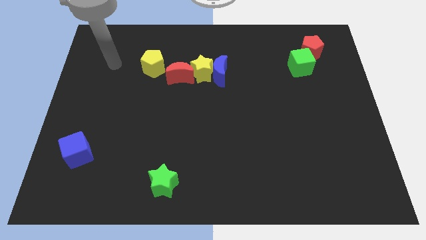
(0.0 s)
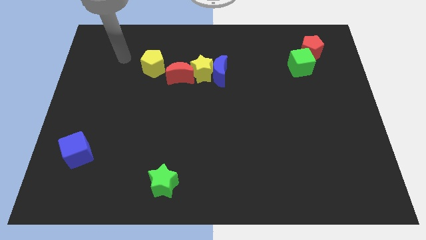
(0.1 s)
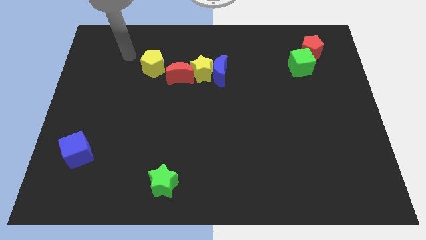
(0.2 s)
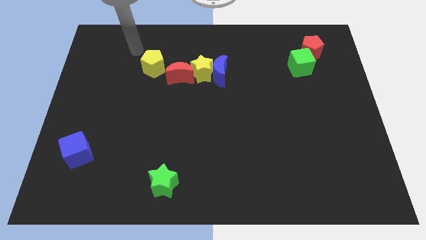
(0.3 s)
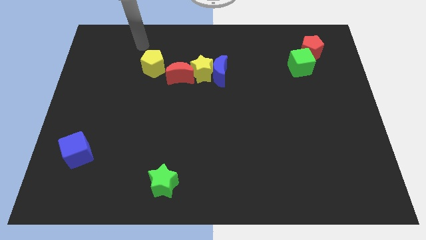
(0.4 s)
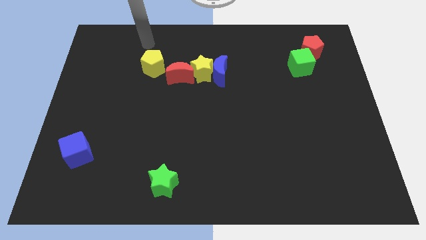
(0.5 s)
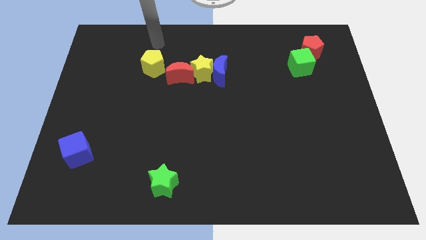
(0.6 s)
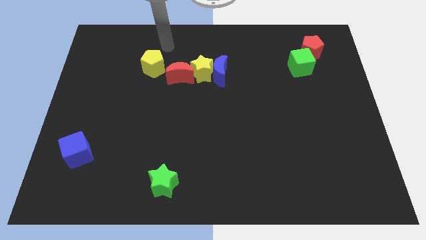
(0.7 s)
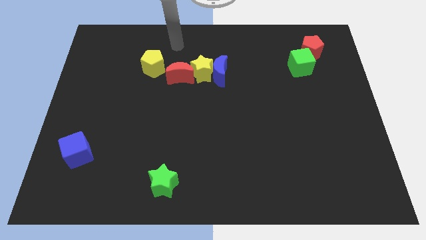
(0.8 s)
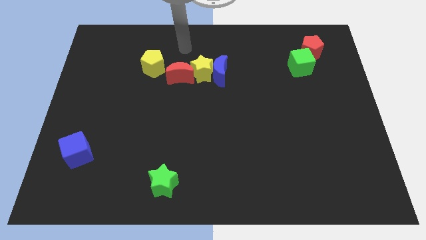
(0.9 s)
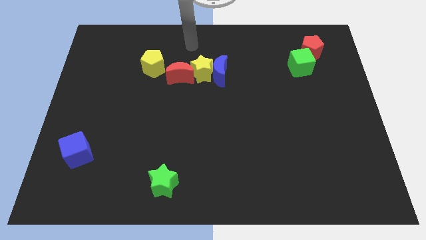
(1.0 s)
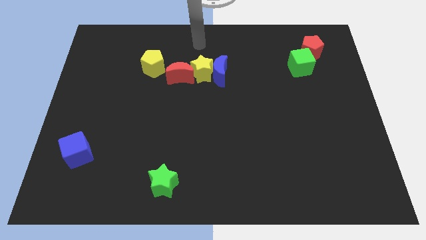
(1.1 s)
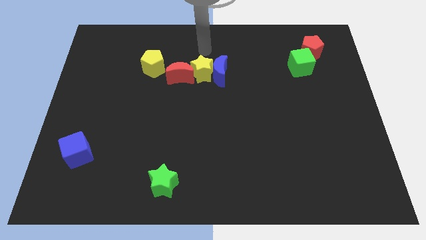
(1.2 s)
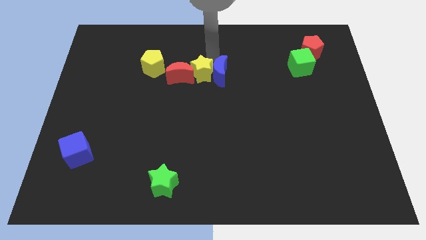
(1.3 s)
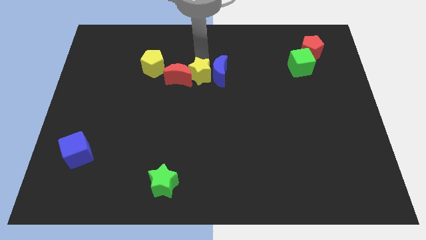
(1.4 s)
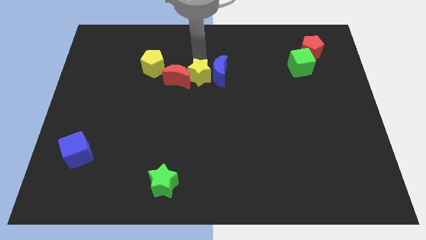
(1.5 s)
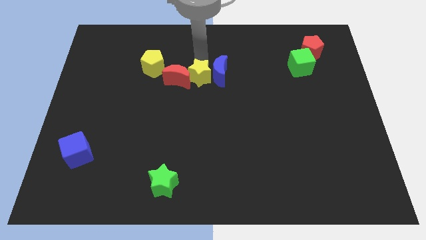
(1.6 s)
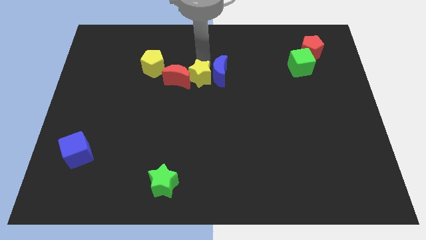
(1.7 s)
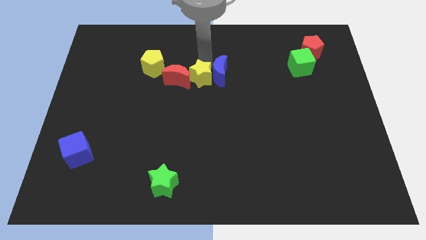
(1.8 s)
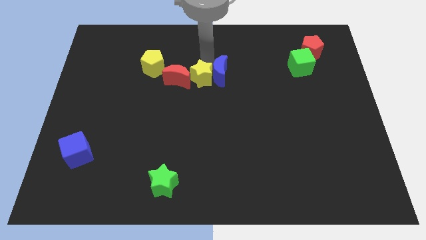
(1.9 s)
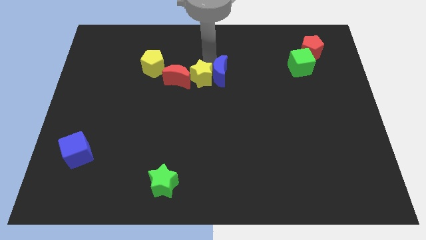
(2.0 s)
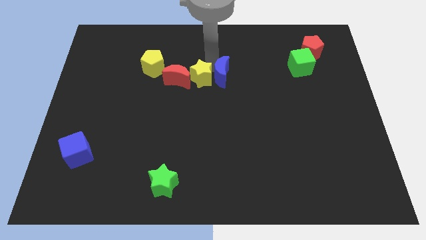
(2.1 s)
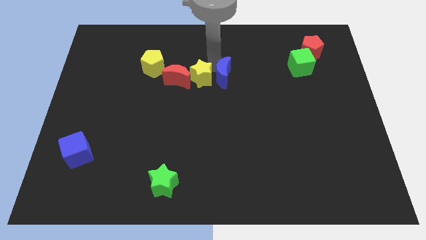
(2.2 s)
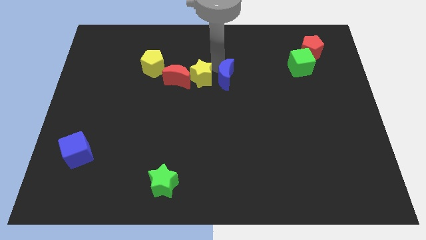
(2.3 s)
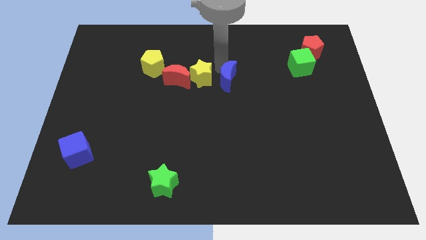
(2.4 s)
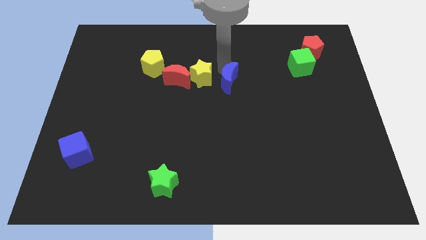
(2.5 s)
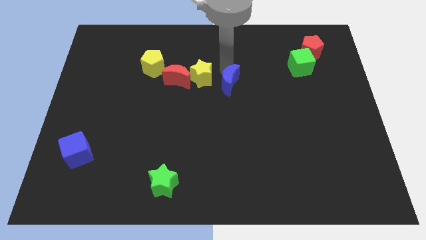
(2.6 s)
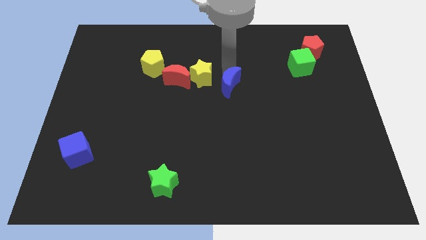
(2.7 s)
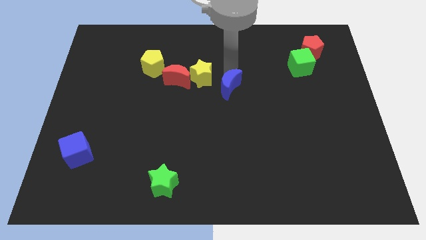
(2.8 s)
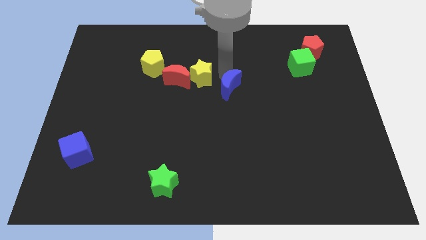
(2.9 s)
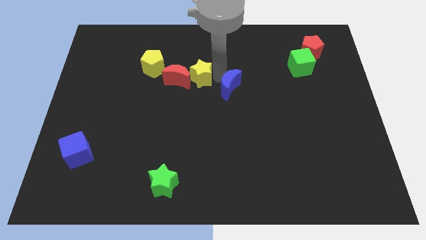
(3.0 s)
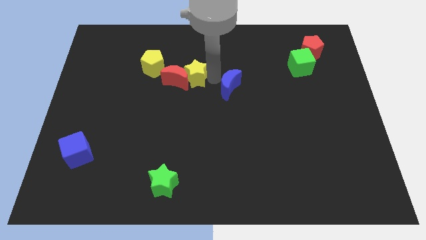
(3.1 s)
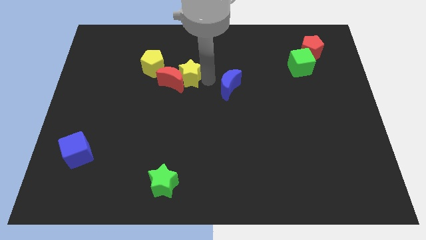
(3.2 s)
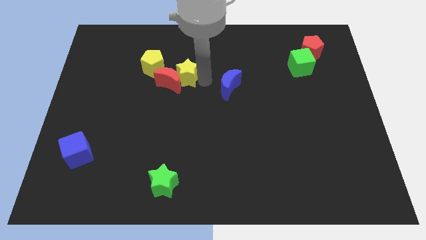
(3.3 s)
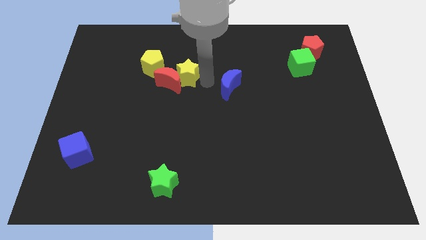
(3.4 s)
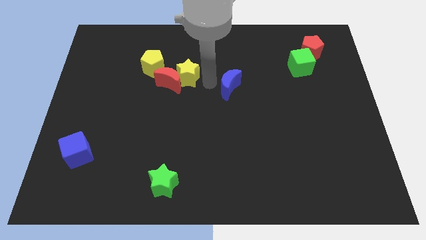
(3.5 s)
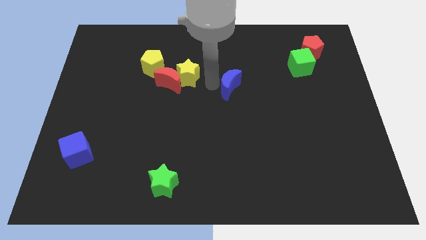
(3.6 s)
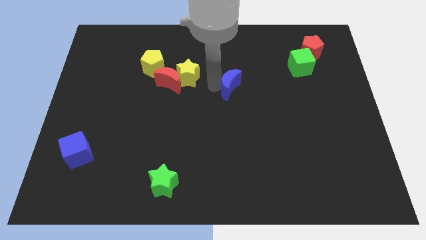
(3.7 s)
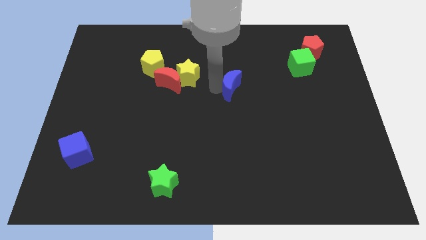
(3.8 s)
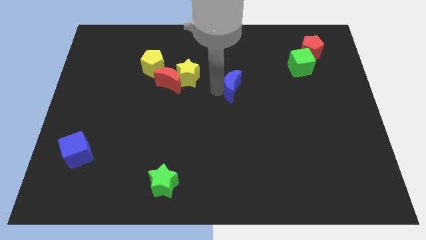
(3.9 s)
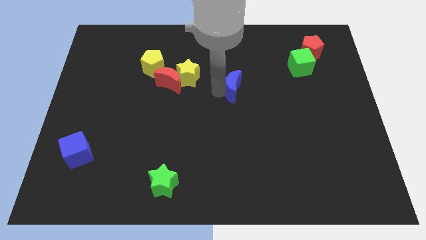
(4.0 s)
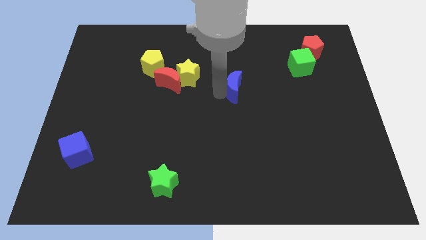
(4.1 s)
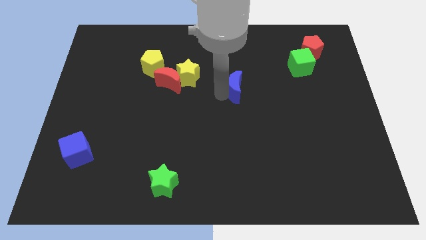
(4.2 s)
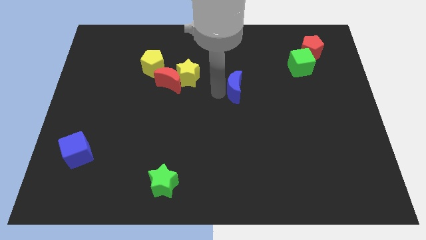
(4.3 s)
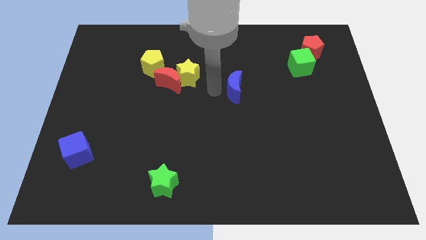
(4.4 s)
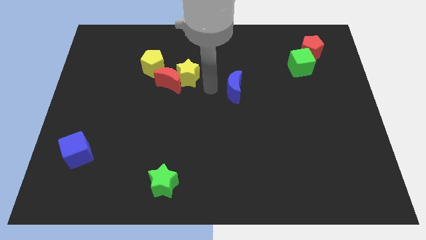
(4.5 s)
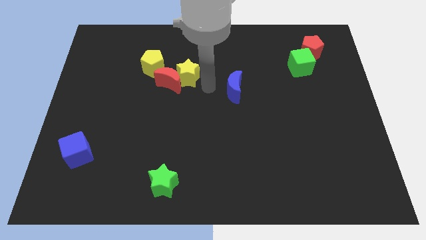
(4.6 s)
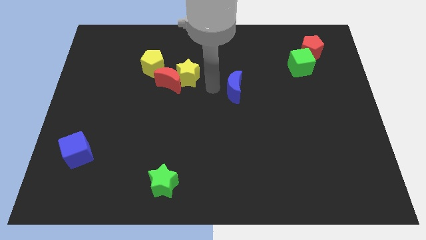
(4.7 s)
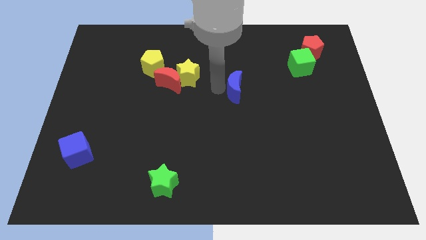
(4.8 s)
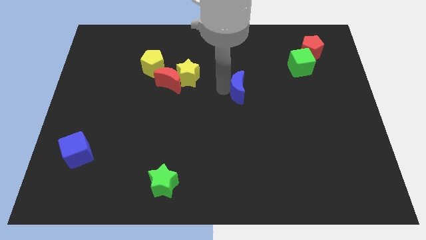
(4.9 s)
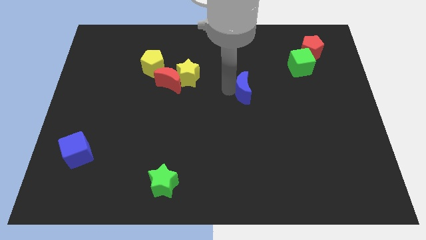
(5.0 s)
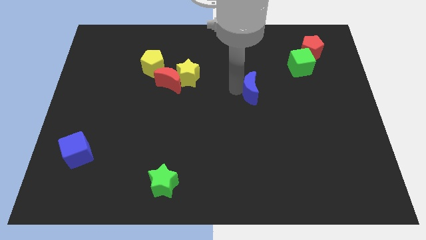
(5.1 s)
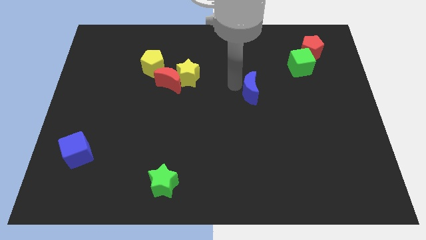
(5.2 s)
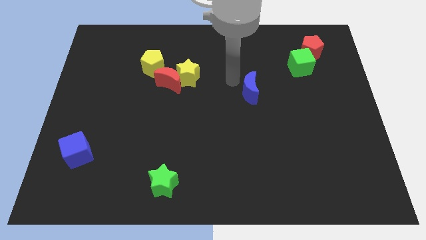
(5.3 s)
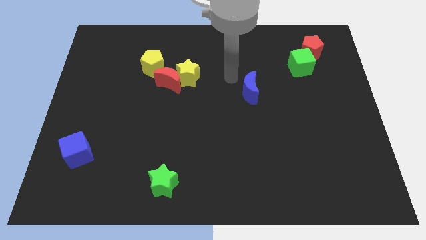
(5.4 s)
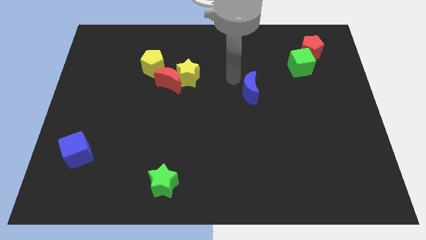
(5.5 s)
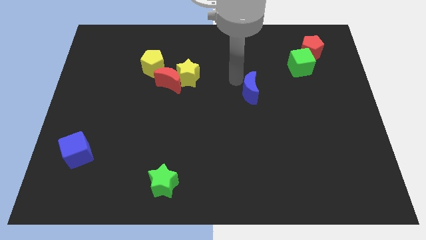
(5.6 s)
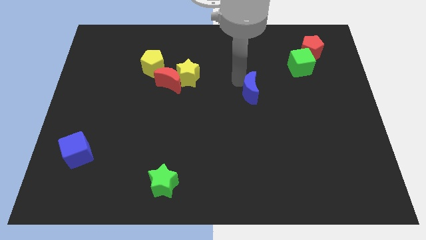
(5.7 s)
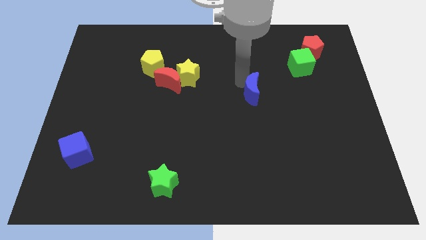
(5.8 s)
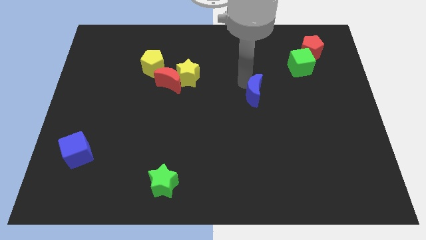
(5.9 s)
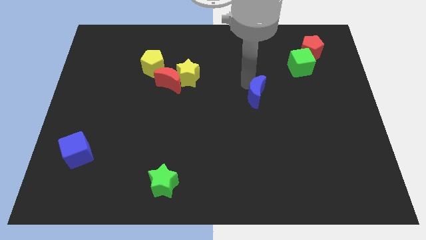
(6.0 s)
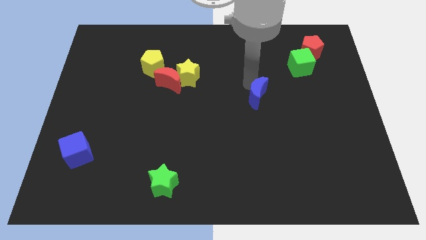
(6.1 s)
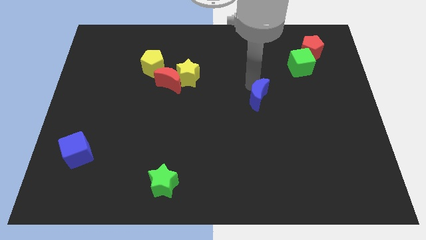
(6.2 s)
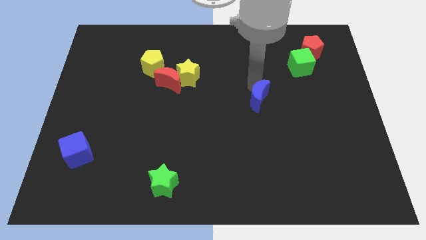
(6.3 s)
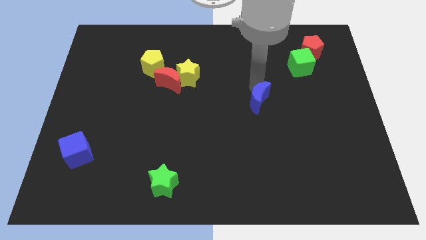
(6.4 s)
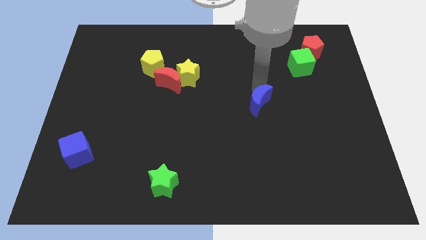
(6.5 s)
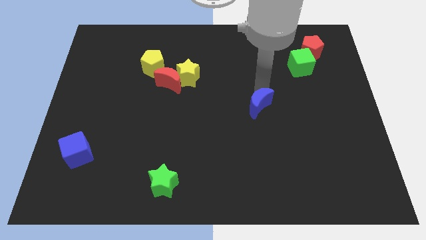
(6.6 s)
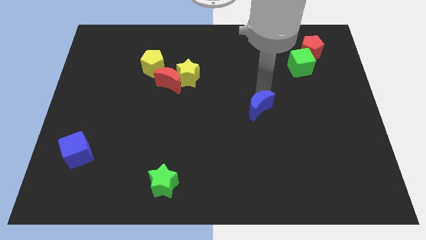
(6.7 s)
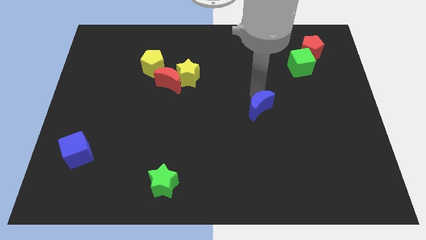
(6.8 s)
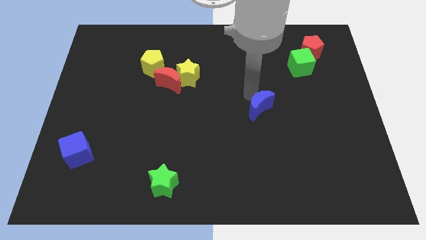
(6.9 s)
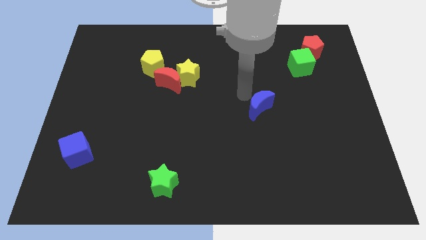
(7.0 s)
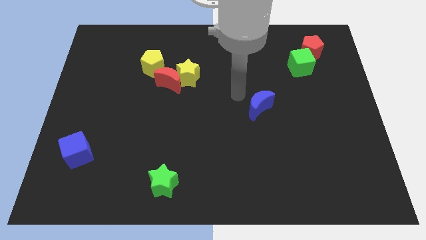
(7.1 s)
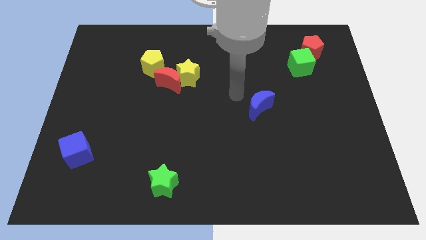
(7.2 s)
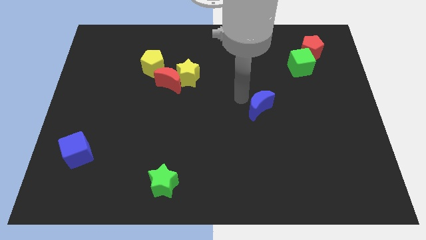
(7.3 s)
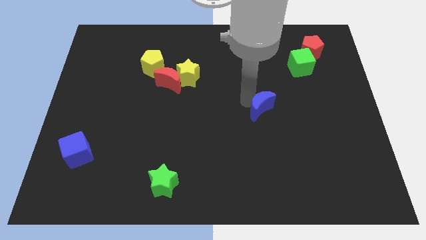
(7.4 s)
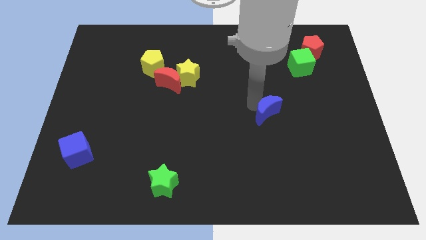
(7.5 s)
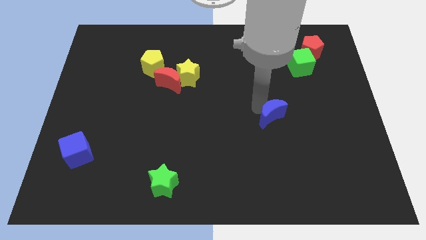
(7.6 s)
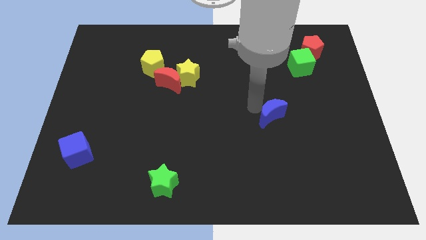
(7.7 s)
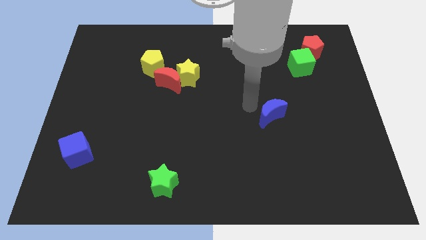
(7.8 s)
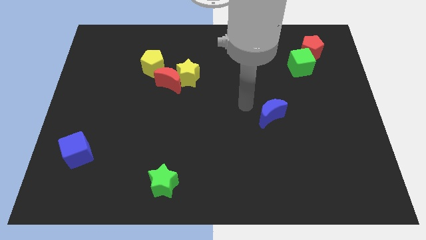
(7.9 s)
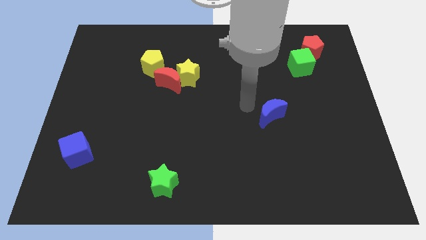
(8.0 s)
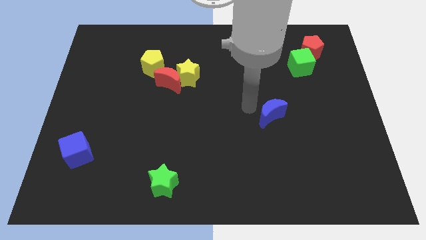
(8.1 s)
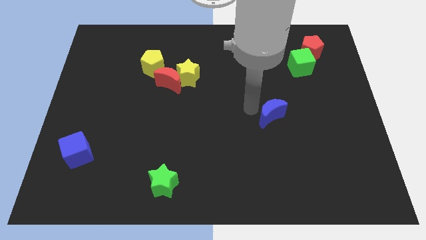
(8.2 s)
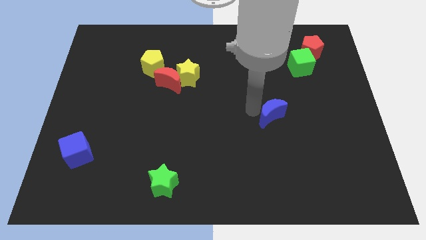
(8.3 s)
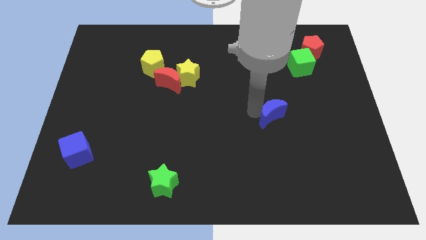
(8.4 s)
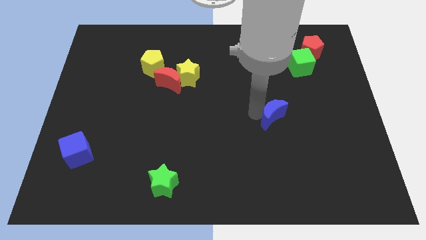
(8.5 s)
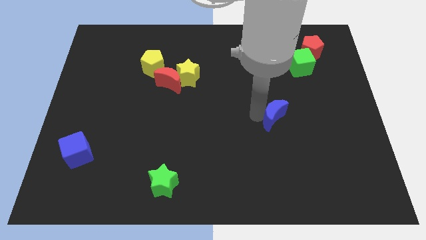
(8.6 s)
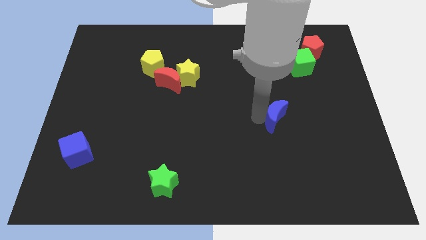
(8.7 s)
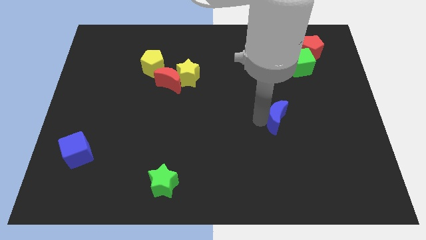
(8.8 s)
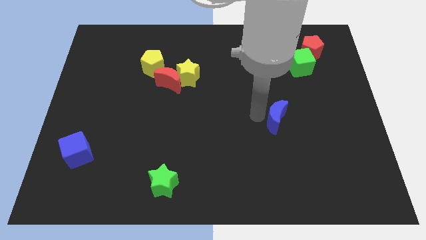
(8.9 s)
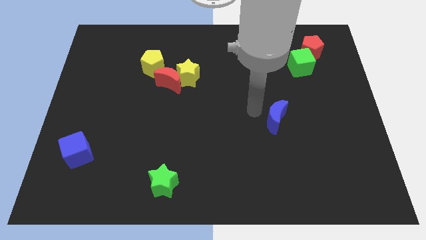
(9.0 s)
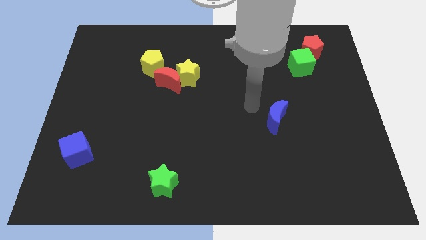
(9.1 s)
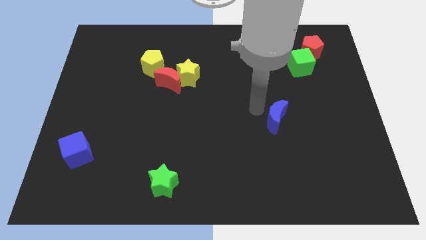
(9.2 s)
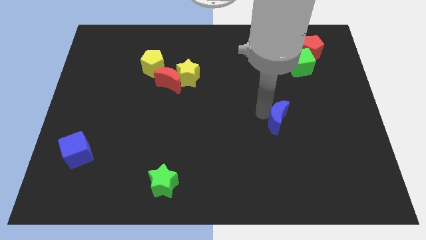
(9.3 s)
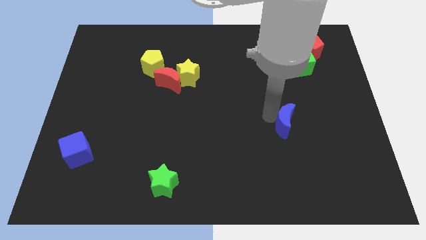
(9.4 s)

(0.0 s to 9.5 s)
push the blue moon downwards and to the right
